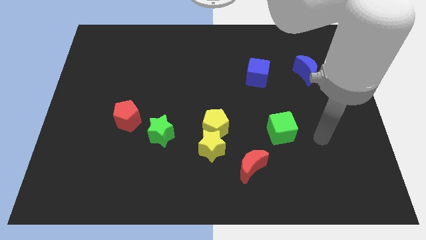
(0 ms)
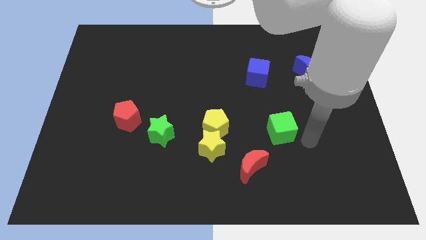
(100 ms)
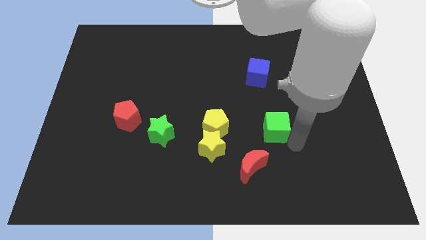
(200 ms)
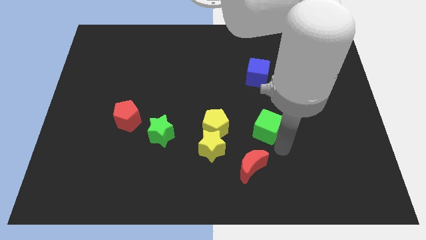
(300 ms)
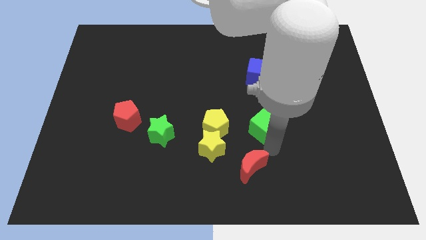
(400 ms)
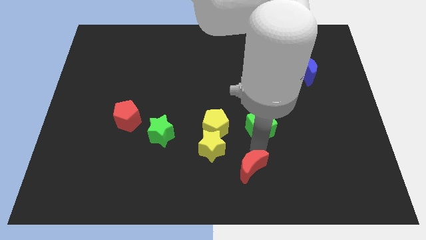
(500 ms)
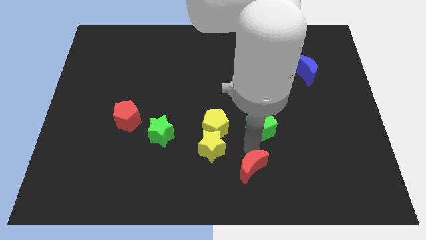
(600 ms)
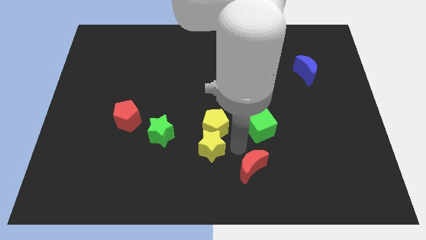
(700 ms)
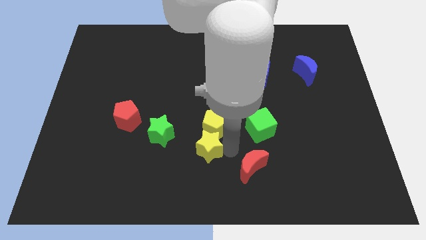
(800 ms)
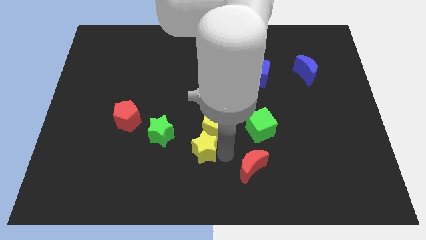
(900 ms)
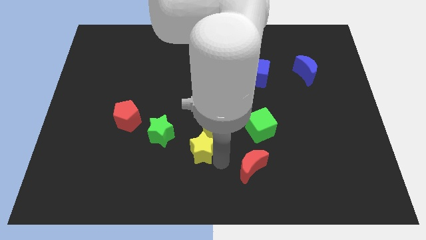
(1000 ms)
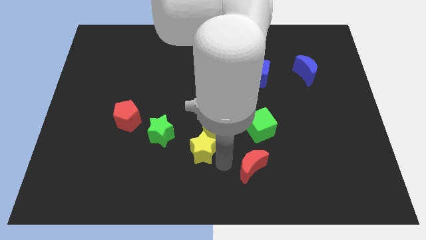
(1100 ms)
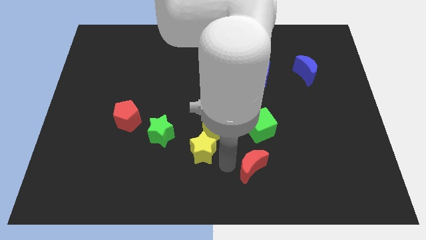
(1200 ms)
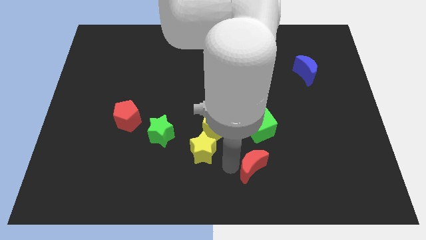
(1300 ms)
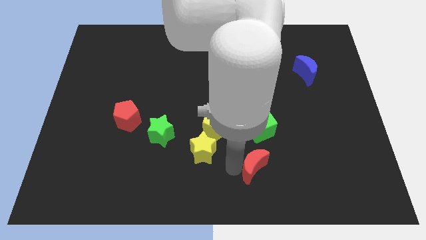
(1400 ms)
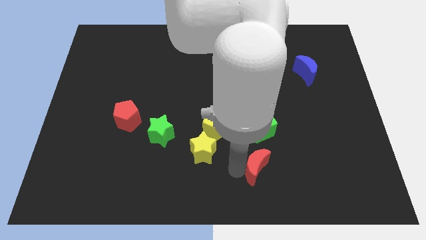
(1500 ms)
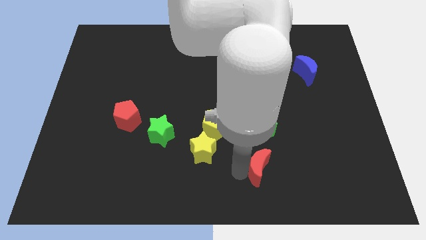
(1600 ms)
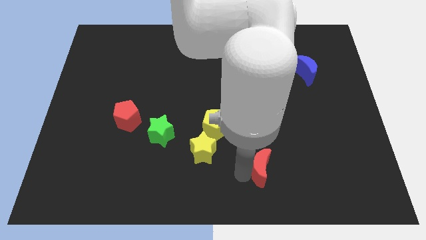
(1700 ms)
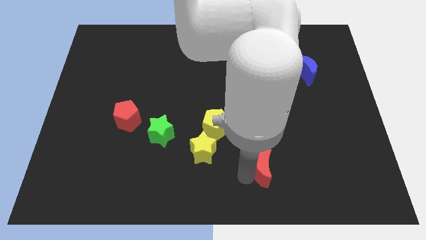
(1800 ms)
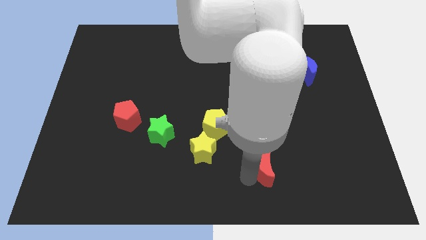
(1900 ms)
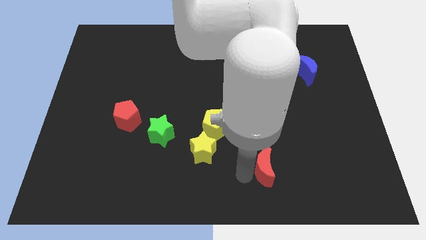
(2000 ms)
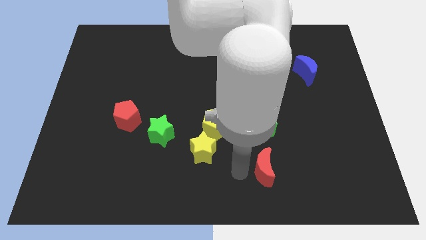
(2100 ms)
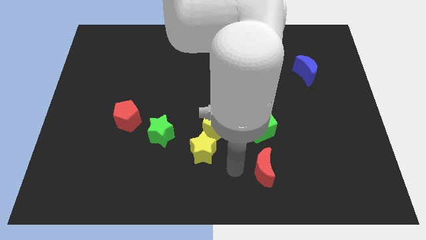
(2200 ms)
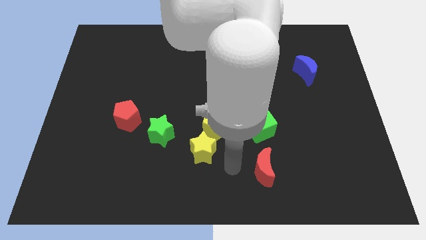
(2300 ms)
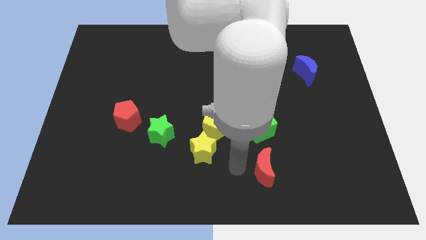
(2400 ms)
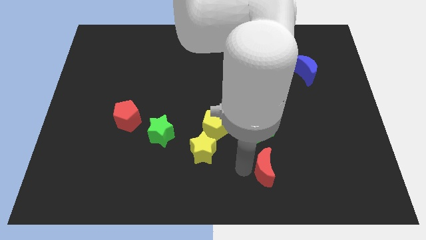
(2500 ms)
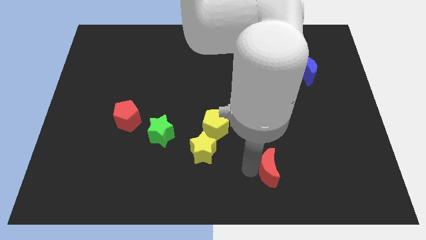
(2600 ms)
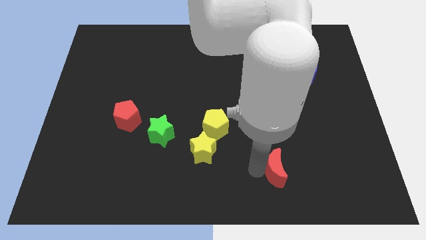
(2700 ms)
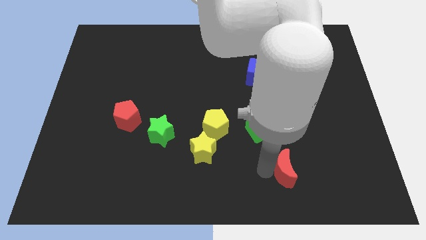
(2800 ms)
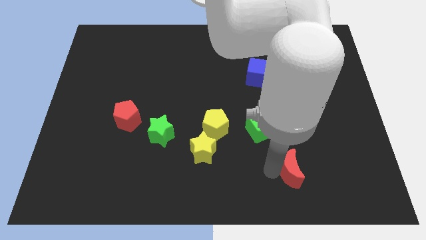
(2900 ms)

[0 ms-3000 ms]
push the red moon slightly right

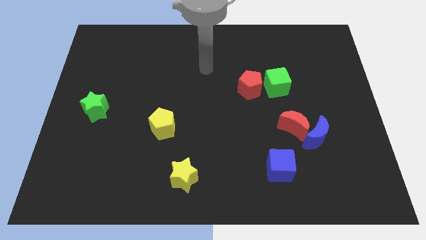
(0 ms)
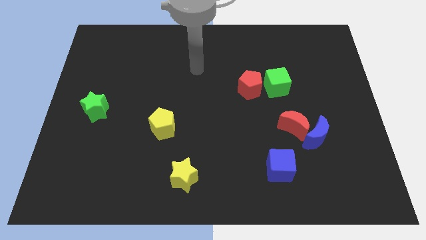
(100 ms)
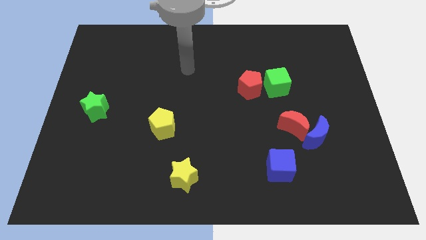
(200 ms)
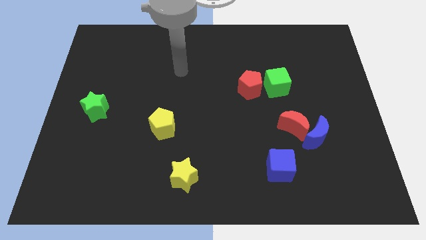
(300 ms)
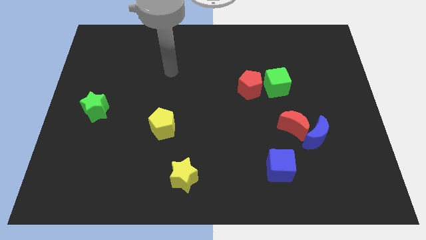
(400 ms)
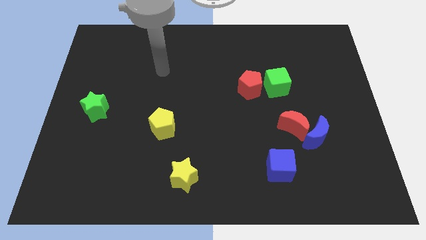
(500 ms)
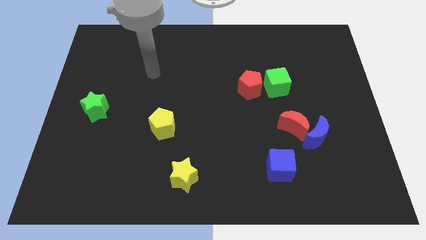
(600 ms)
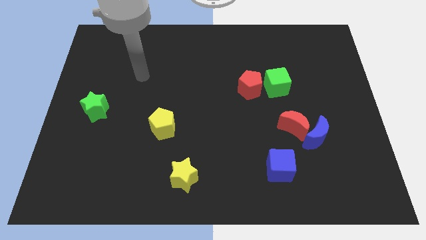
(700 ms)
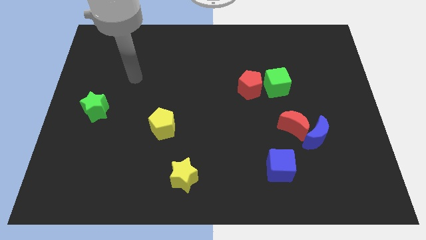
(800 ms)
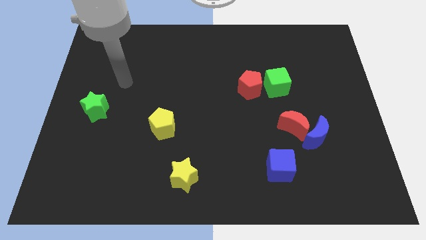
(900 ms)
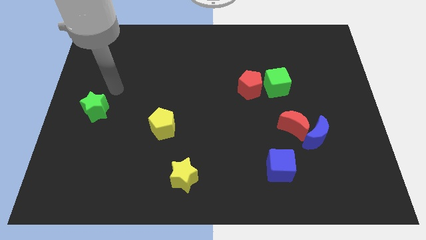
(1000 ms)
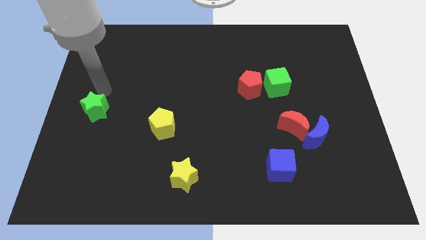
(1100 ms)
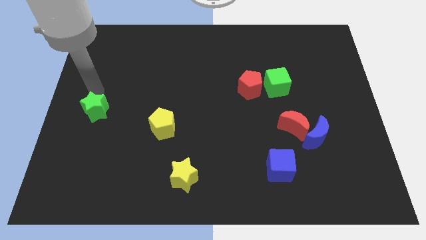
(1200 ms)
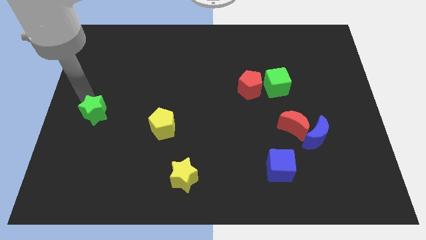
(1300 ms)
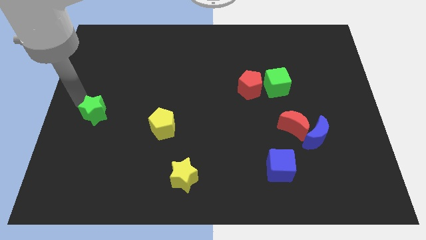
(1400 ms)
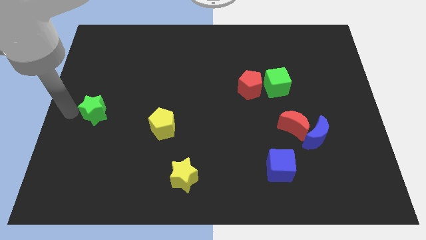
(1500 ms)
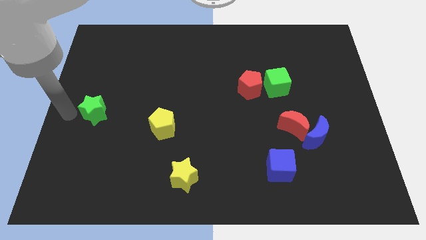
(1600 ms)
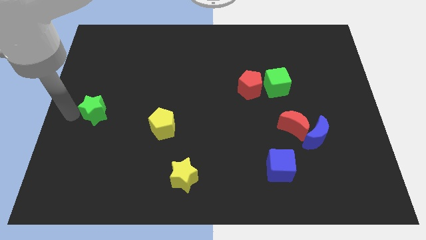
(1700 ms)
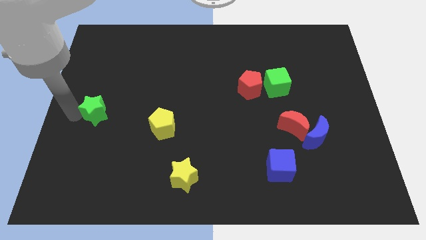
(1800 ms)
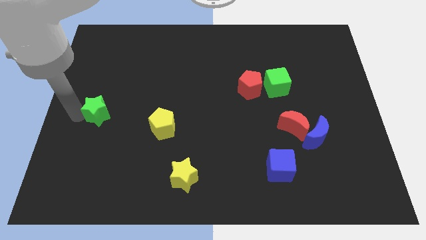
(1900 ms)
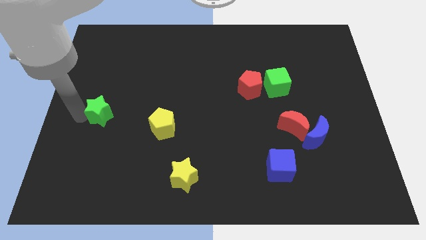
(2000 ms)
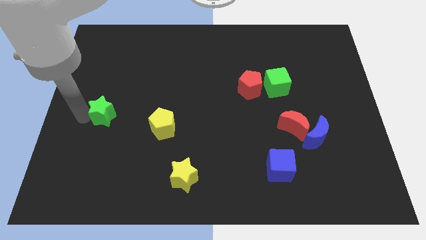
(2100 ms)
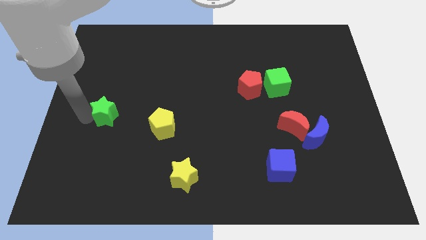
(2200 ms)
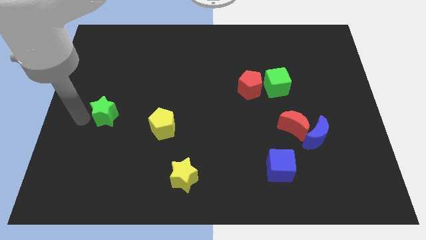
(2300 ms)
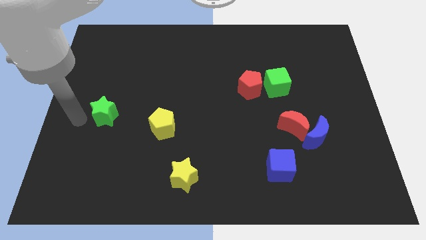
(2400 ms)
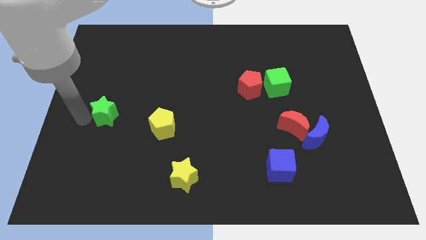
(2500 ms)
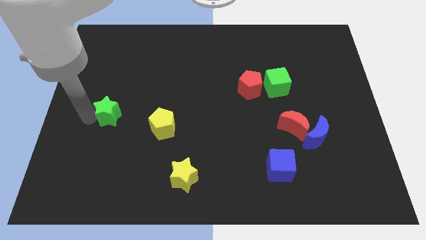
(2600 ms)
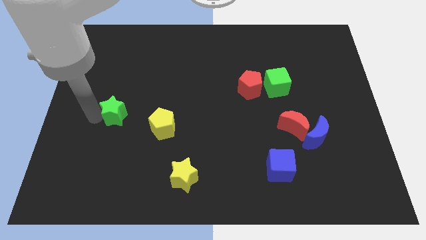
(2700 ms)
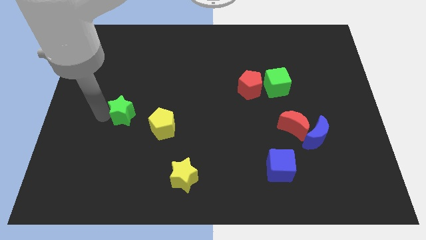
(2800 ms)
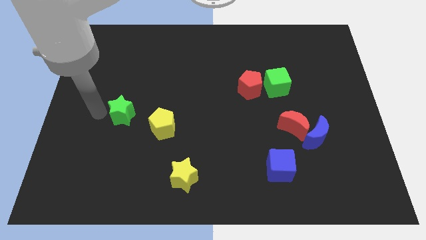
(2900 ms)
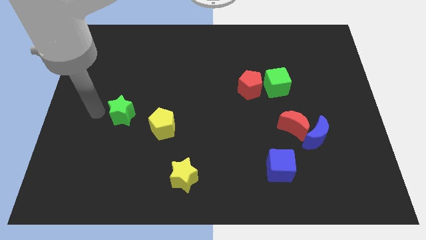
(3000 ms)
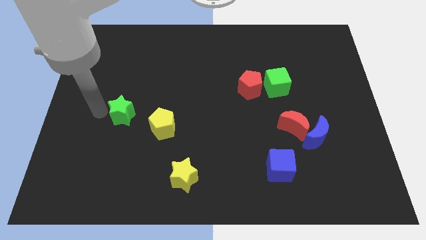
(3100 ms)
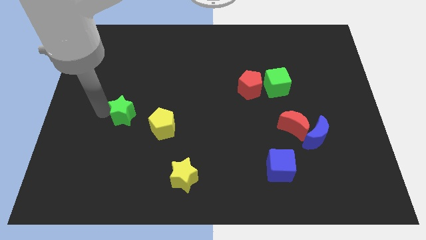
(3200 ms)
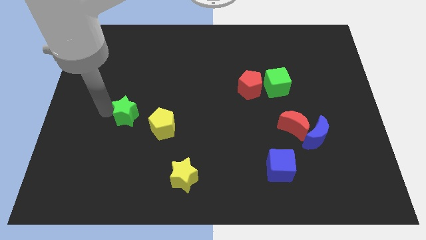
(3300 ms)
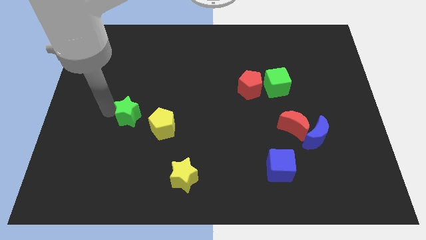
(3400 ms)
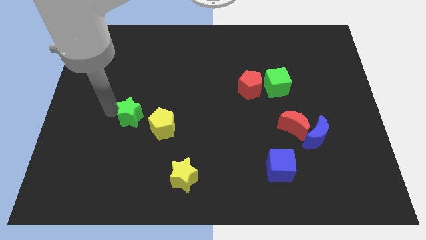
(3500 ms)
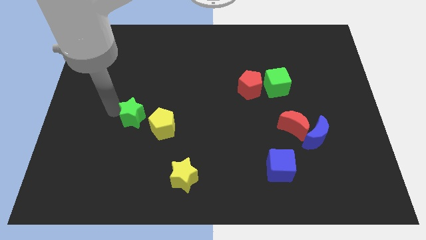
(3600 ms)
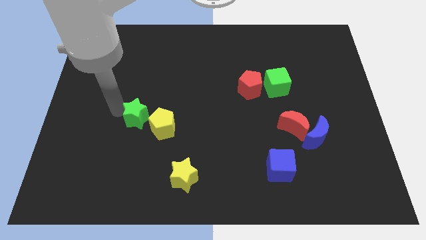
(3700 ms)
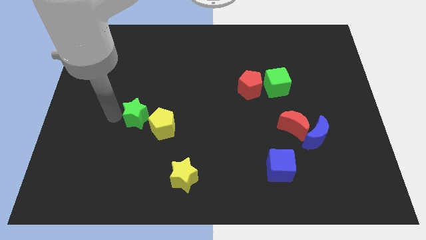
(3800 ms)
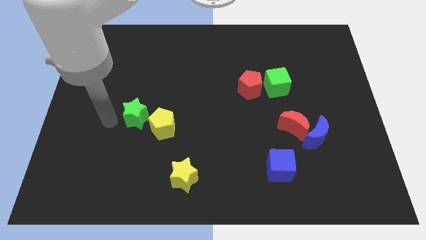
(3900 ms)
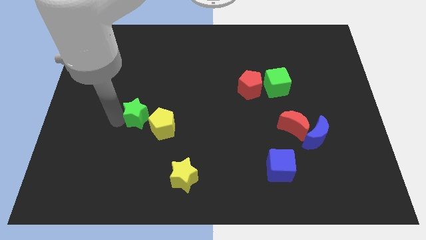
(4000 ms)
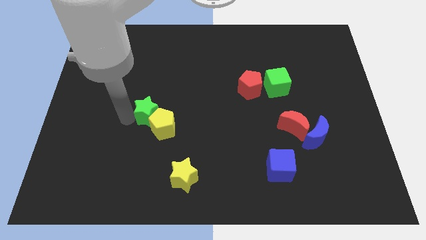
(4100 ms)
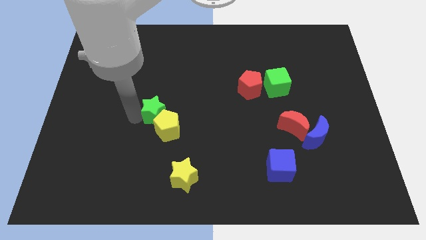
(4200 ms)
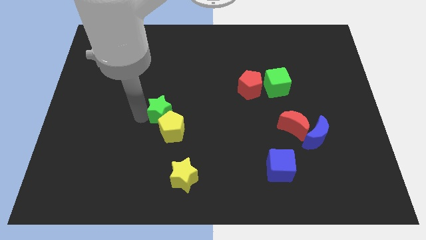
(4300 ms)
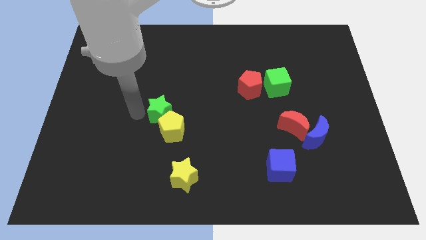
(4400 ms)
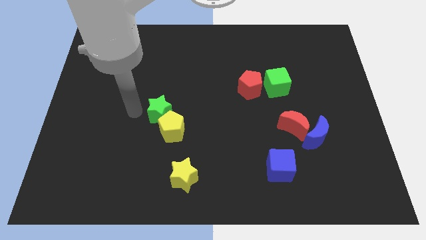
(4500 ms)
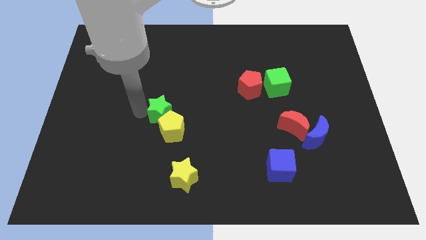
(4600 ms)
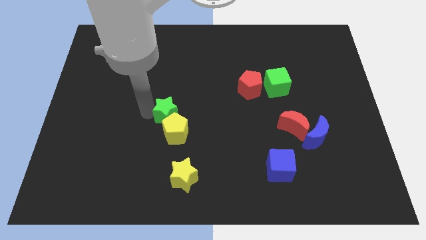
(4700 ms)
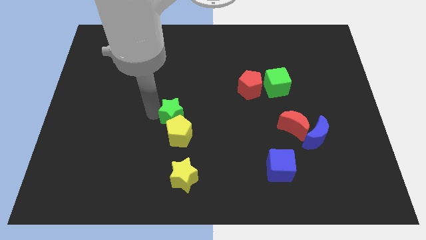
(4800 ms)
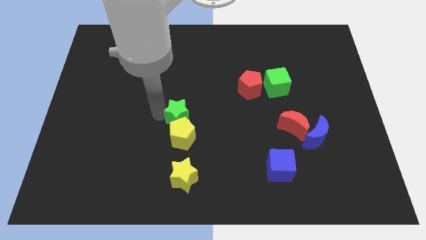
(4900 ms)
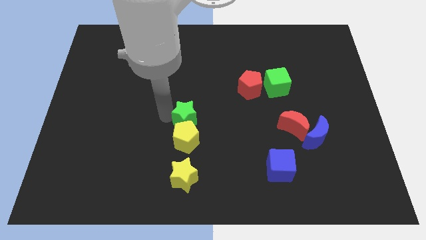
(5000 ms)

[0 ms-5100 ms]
move the green star to the right

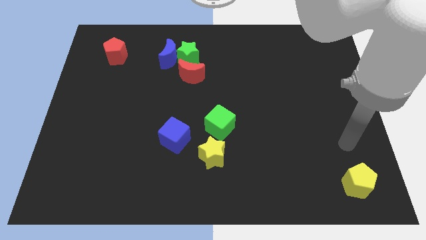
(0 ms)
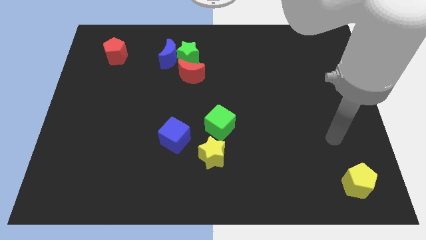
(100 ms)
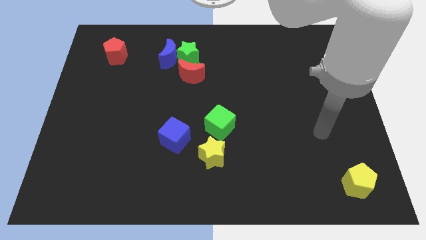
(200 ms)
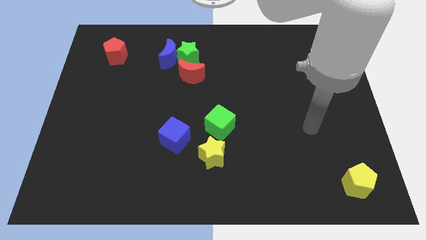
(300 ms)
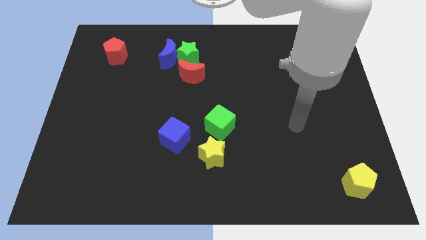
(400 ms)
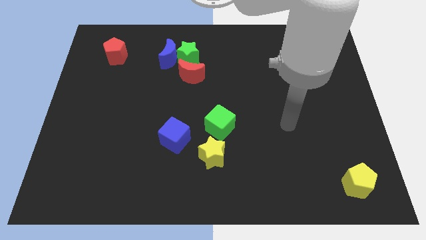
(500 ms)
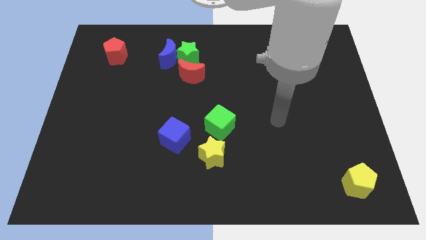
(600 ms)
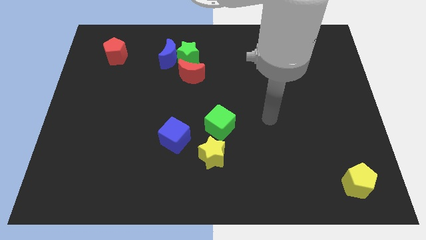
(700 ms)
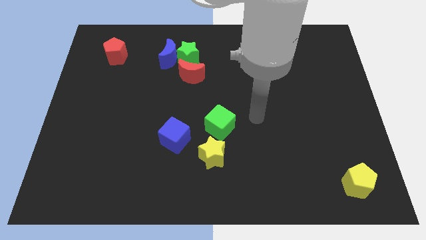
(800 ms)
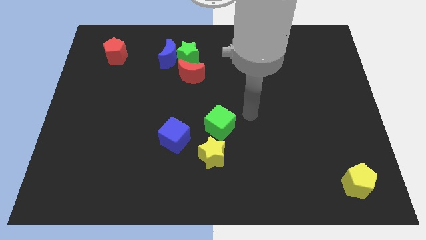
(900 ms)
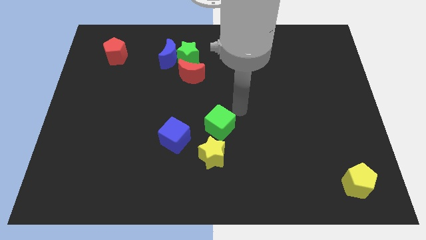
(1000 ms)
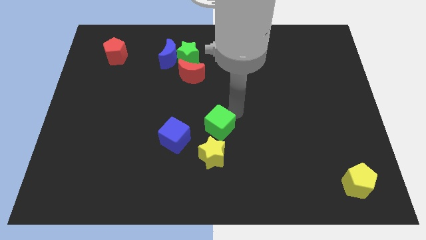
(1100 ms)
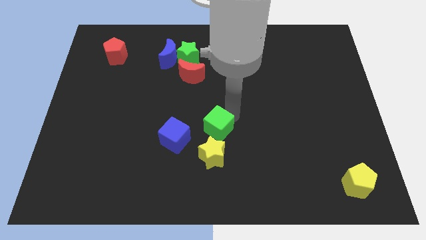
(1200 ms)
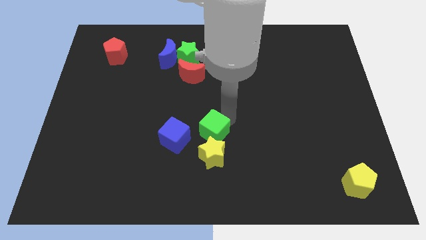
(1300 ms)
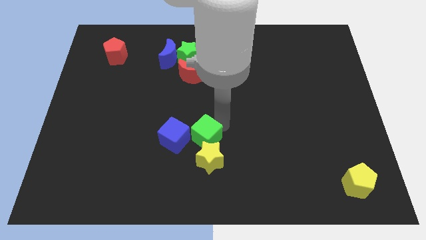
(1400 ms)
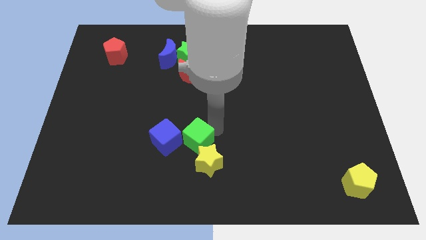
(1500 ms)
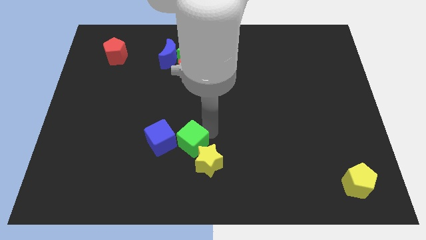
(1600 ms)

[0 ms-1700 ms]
slightly push the green cube downwards and to the left diagonally
